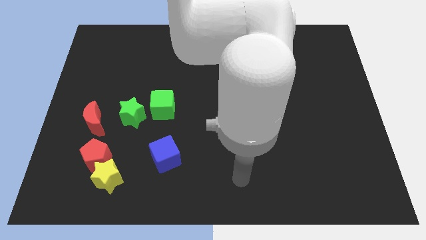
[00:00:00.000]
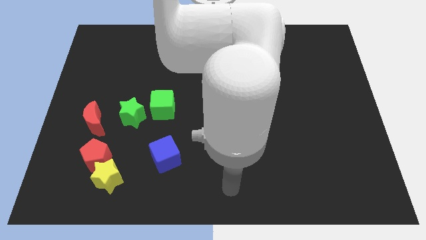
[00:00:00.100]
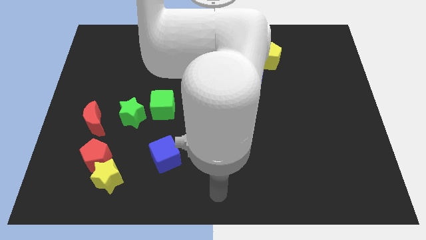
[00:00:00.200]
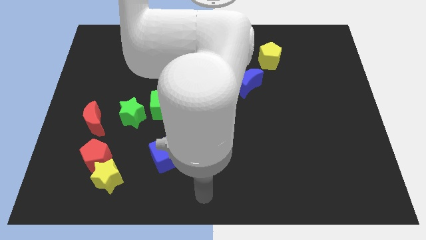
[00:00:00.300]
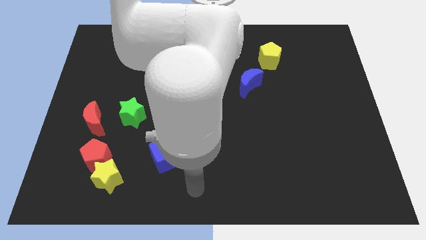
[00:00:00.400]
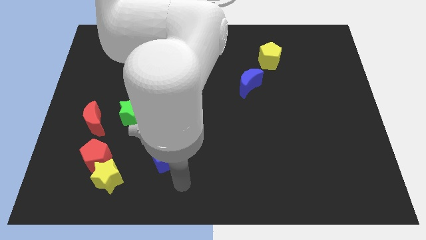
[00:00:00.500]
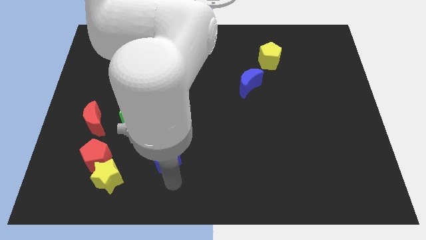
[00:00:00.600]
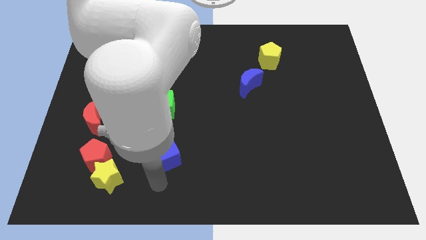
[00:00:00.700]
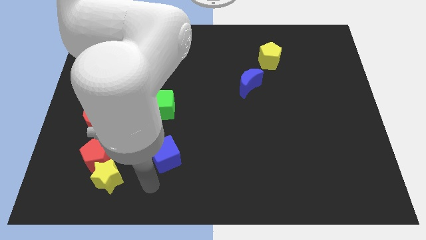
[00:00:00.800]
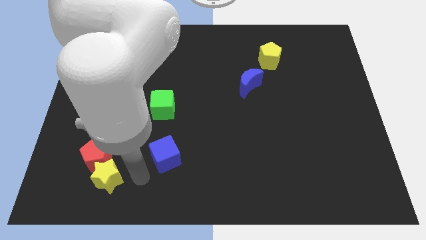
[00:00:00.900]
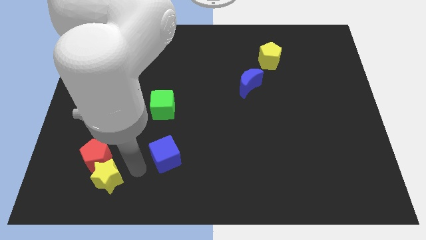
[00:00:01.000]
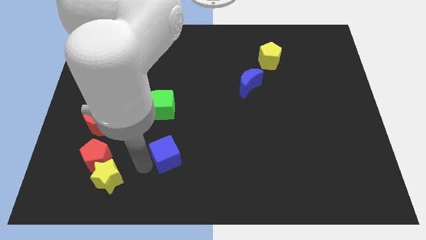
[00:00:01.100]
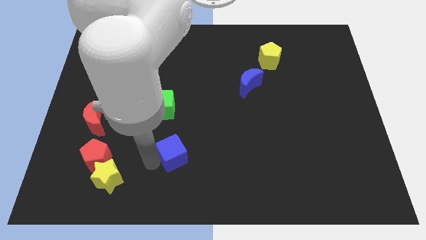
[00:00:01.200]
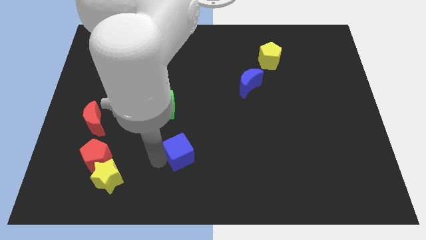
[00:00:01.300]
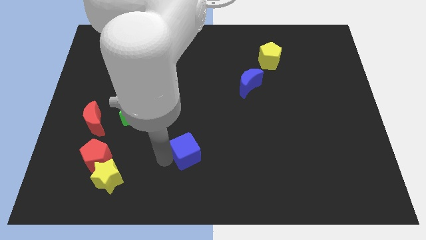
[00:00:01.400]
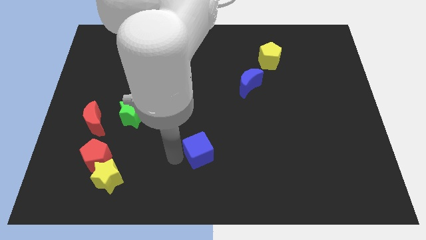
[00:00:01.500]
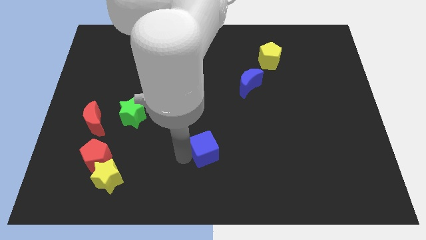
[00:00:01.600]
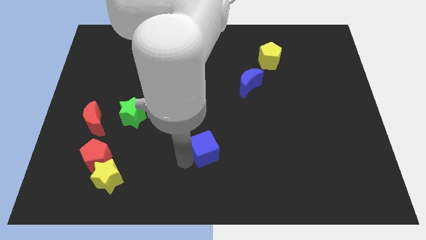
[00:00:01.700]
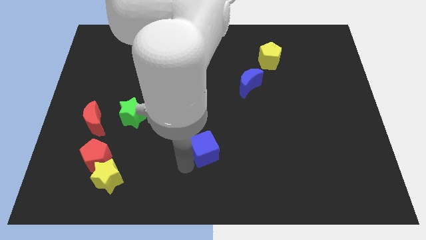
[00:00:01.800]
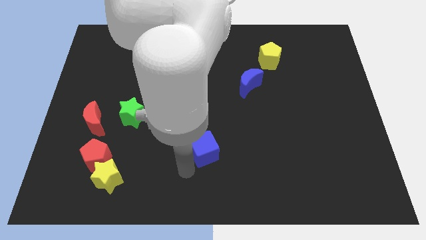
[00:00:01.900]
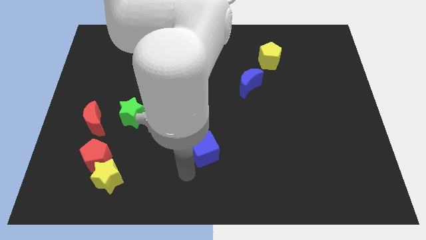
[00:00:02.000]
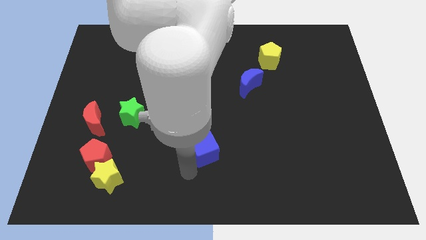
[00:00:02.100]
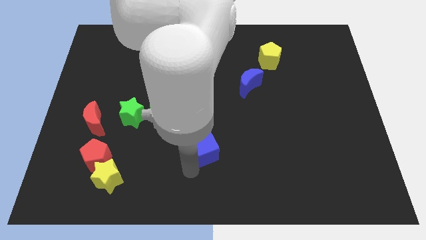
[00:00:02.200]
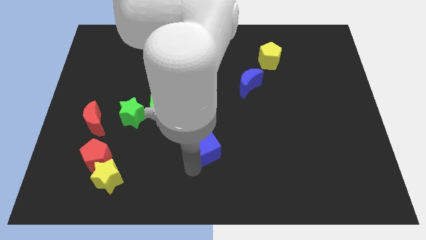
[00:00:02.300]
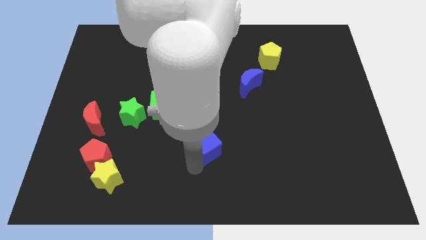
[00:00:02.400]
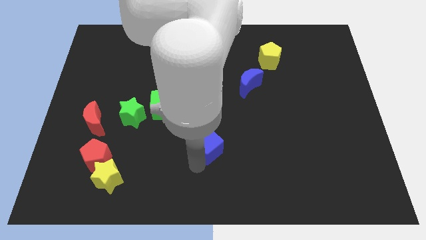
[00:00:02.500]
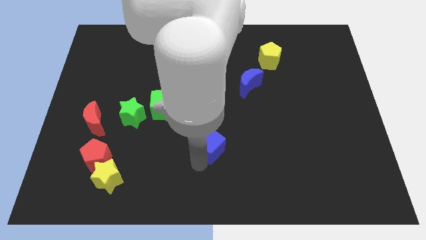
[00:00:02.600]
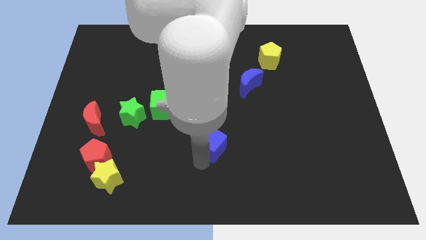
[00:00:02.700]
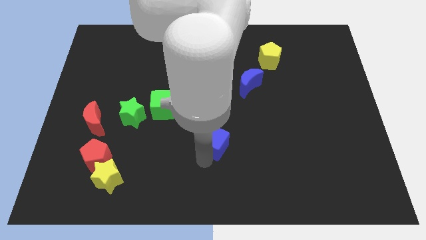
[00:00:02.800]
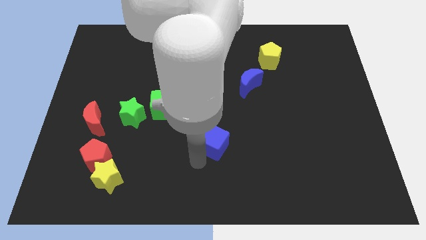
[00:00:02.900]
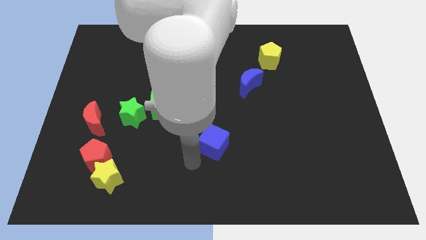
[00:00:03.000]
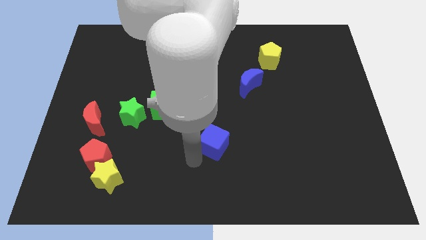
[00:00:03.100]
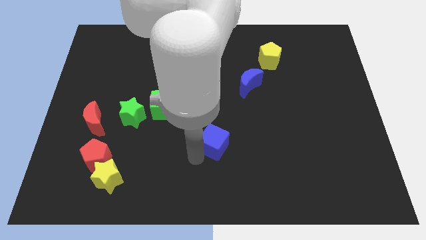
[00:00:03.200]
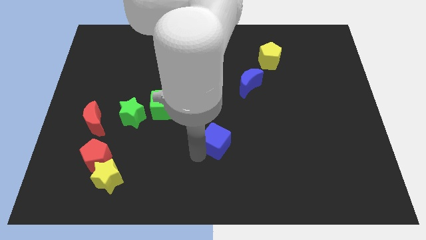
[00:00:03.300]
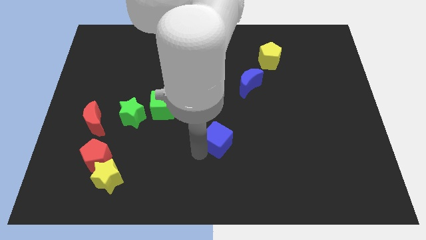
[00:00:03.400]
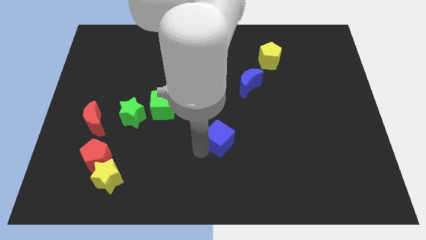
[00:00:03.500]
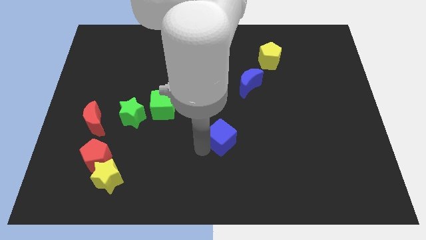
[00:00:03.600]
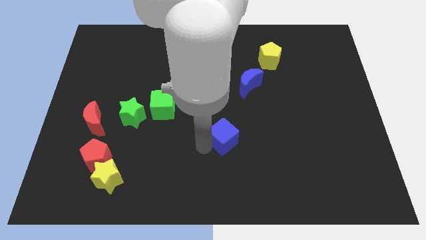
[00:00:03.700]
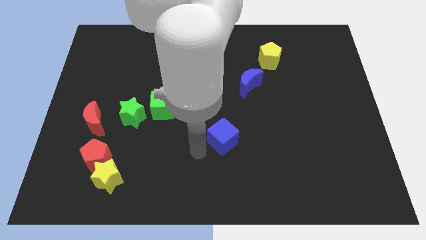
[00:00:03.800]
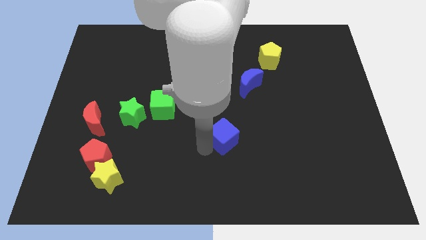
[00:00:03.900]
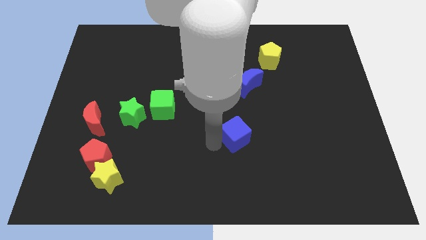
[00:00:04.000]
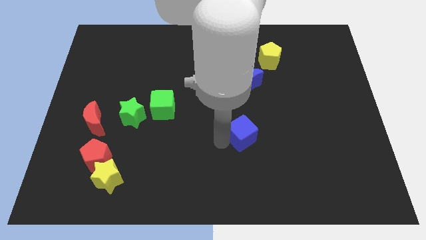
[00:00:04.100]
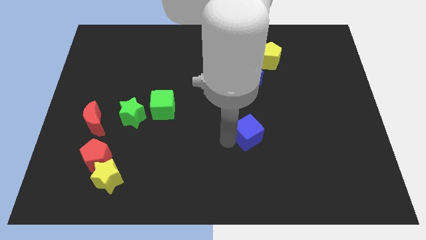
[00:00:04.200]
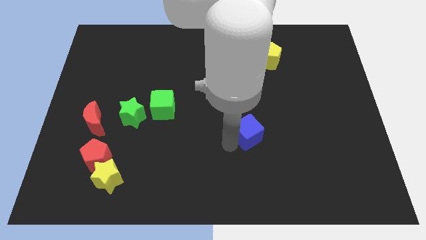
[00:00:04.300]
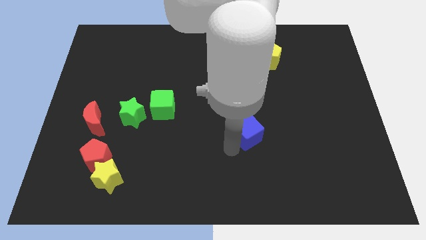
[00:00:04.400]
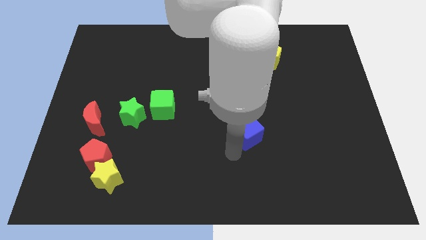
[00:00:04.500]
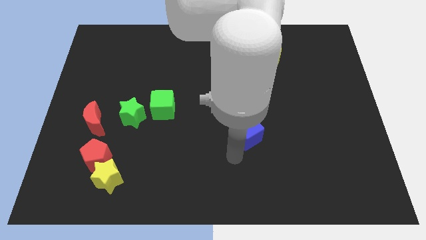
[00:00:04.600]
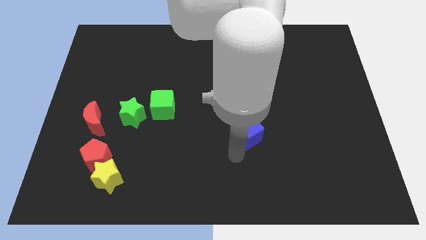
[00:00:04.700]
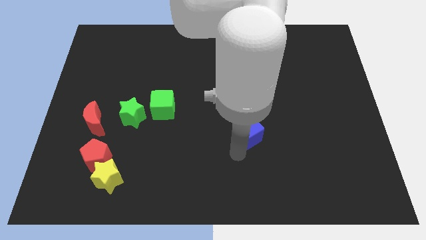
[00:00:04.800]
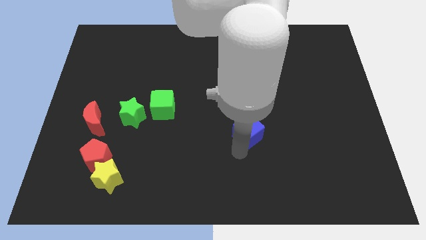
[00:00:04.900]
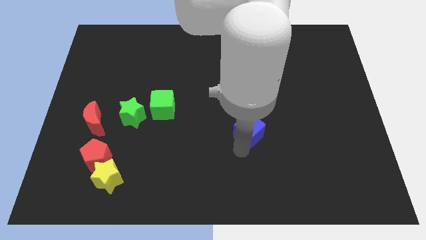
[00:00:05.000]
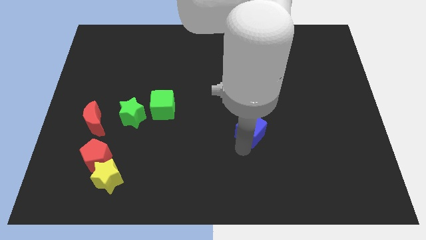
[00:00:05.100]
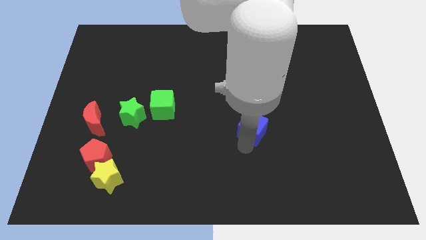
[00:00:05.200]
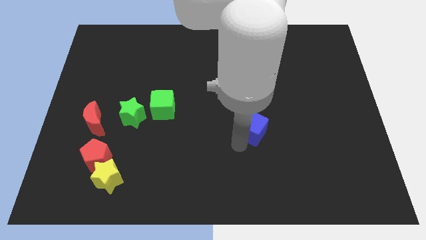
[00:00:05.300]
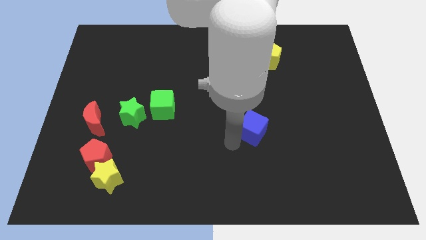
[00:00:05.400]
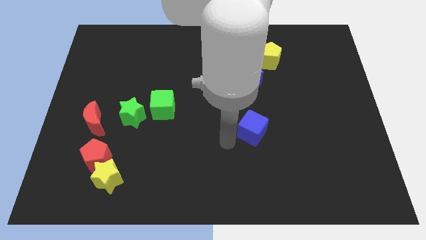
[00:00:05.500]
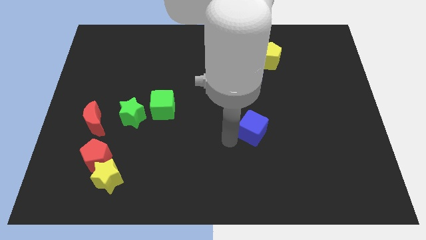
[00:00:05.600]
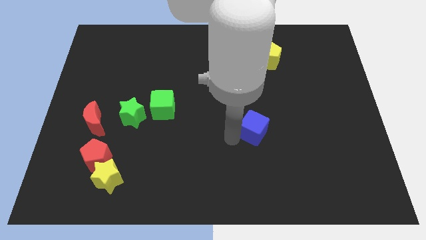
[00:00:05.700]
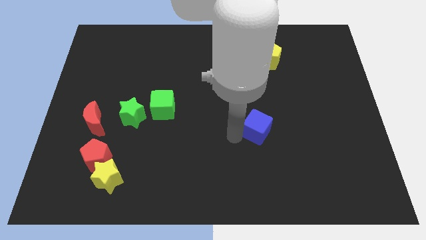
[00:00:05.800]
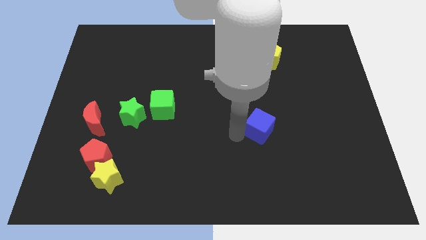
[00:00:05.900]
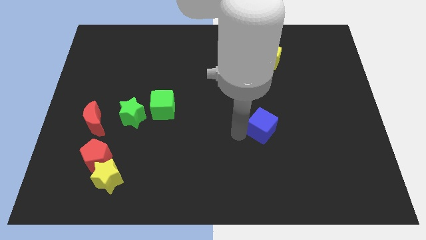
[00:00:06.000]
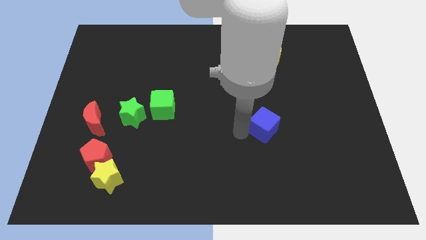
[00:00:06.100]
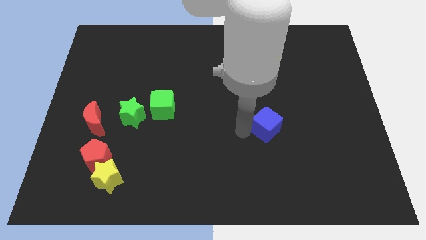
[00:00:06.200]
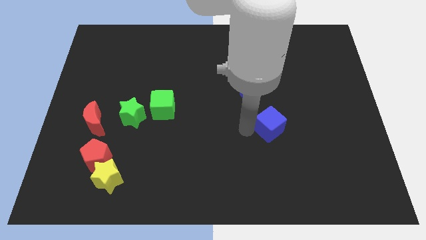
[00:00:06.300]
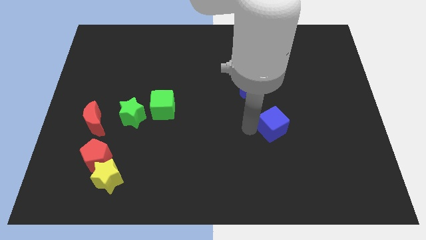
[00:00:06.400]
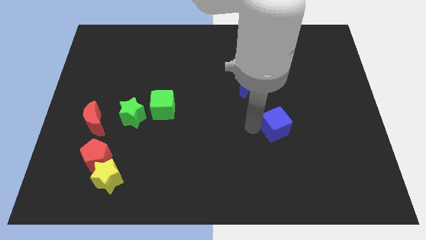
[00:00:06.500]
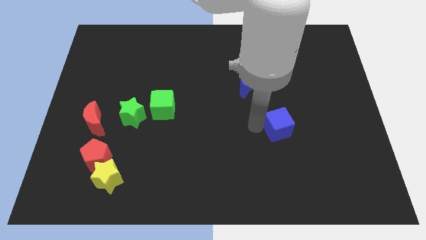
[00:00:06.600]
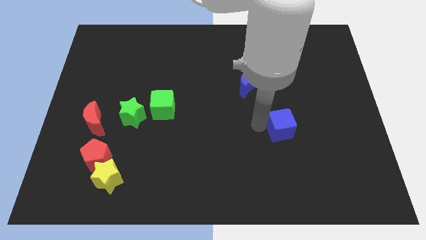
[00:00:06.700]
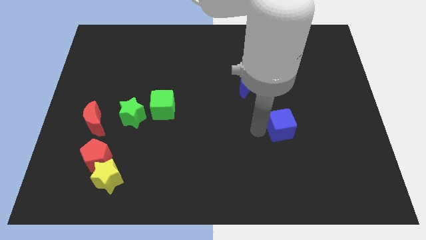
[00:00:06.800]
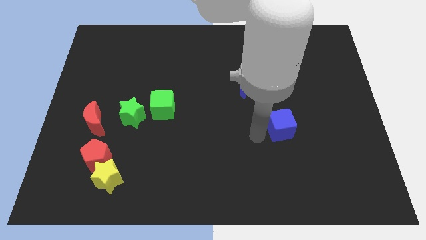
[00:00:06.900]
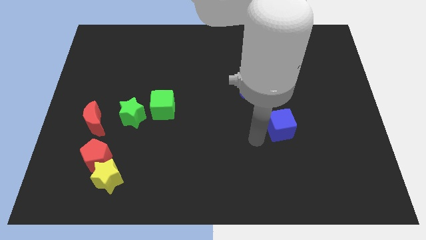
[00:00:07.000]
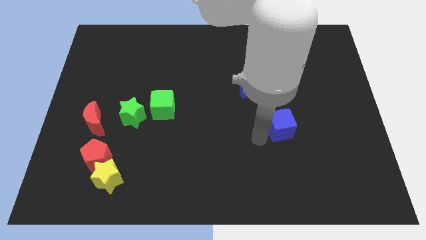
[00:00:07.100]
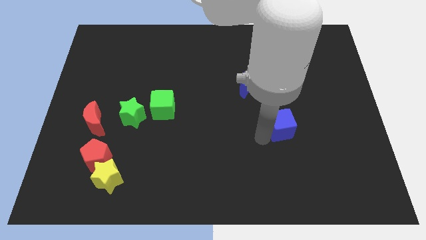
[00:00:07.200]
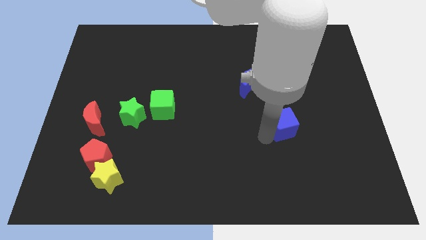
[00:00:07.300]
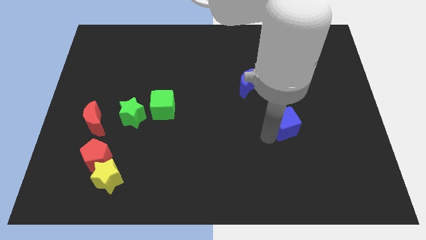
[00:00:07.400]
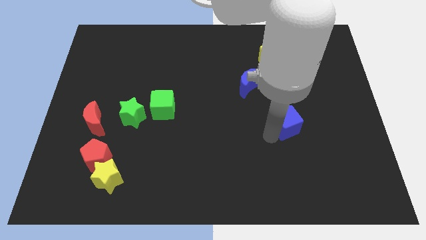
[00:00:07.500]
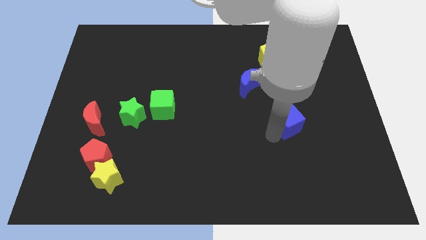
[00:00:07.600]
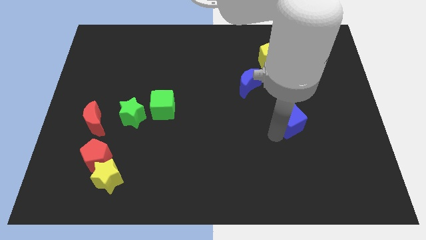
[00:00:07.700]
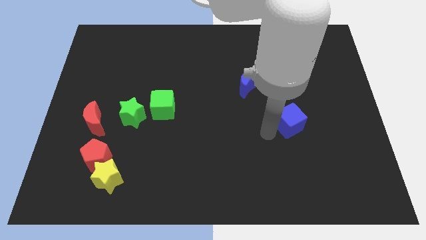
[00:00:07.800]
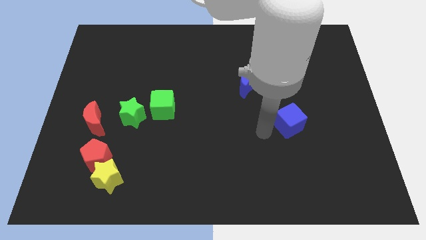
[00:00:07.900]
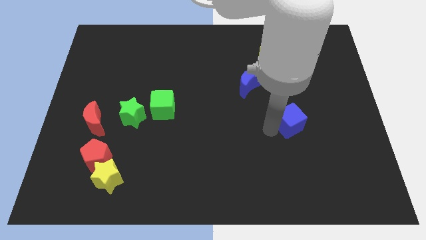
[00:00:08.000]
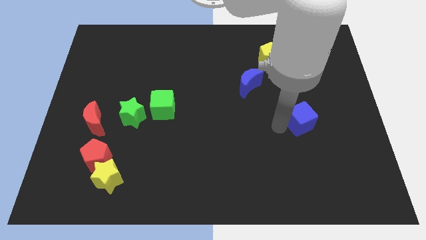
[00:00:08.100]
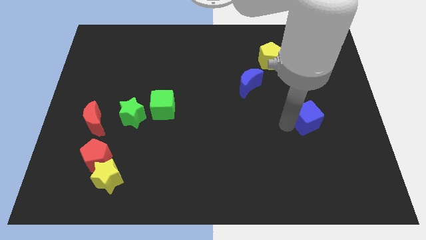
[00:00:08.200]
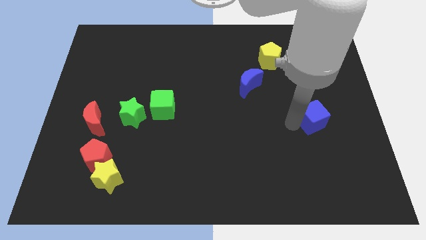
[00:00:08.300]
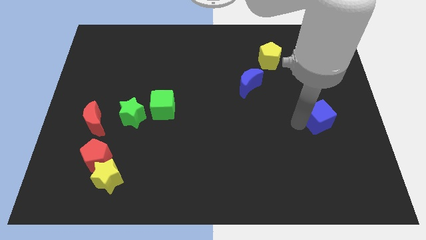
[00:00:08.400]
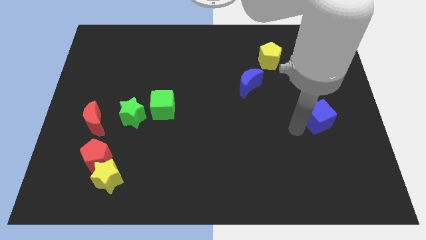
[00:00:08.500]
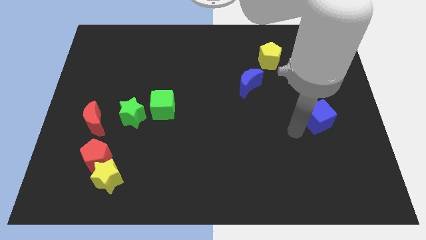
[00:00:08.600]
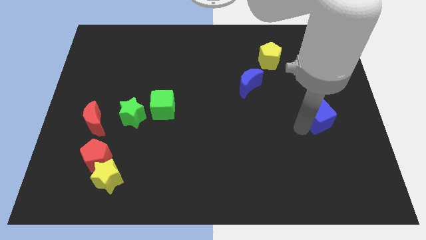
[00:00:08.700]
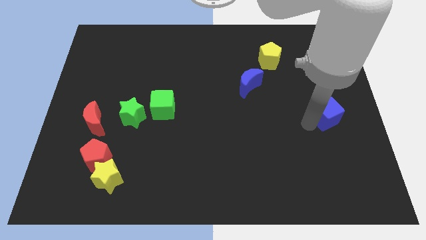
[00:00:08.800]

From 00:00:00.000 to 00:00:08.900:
push the blue cube to the right side
